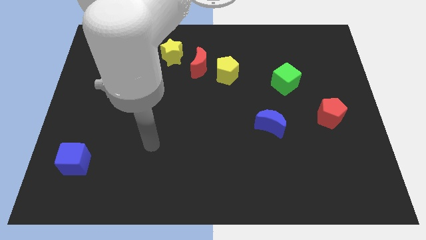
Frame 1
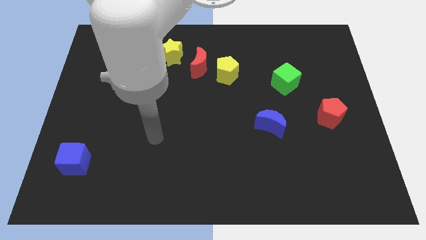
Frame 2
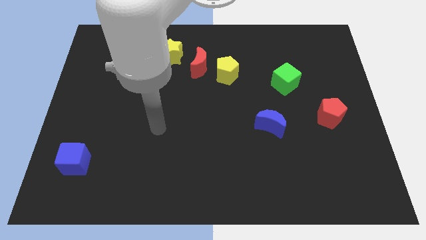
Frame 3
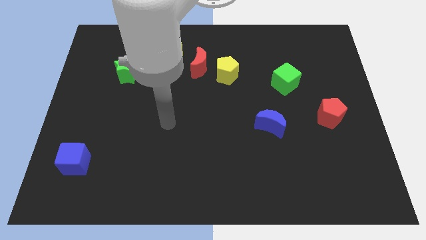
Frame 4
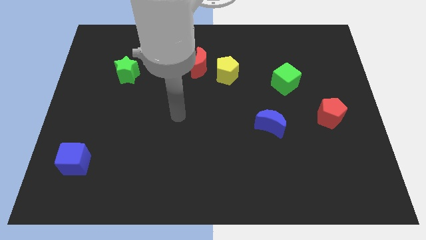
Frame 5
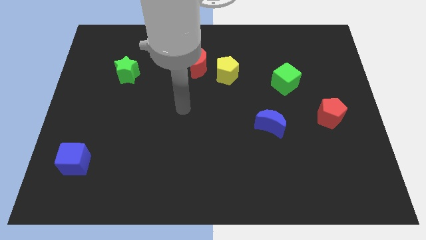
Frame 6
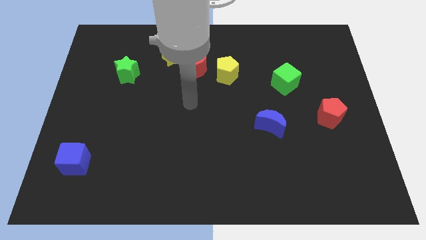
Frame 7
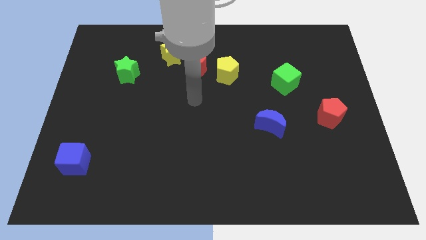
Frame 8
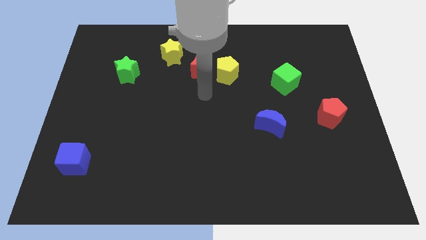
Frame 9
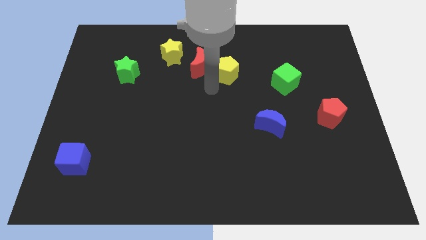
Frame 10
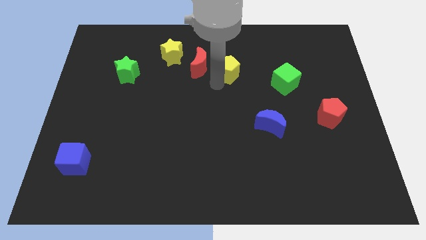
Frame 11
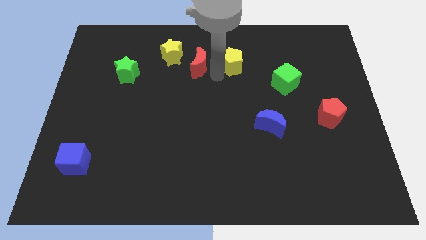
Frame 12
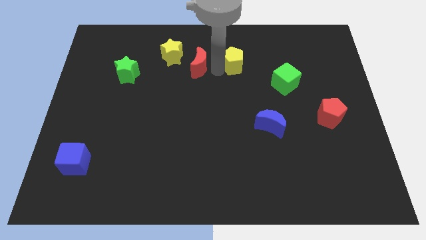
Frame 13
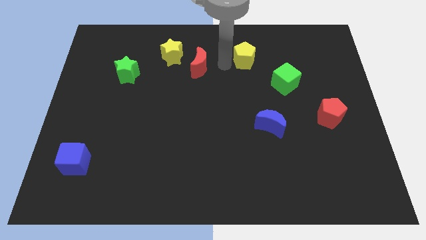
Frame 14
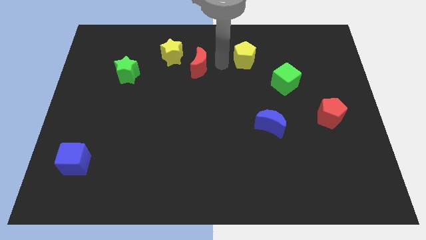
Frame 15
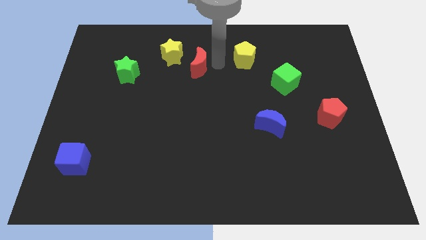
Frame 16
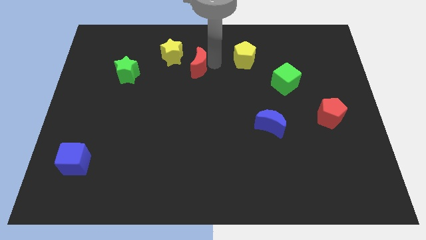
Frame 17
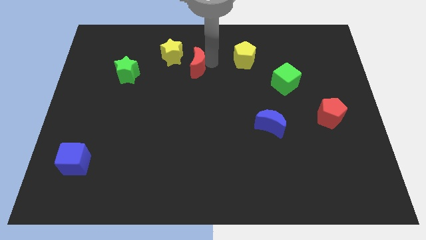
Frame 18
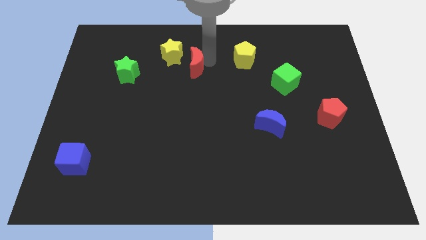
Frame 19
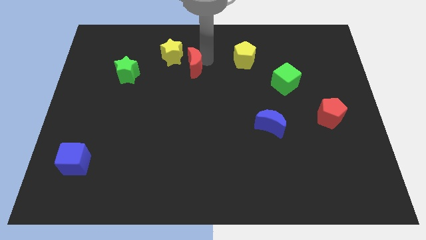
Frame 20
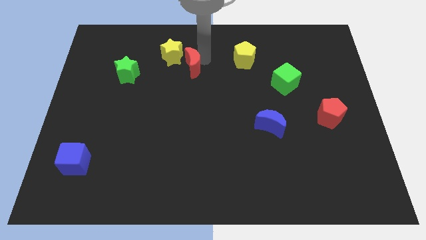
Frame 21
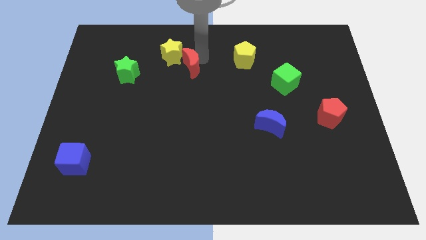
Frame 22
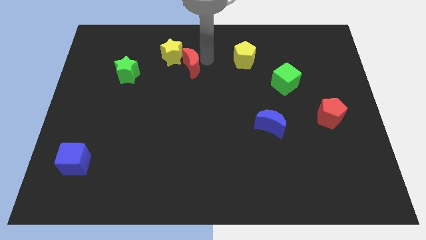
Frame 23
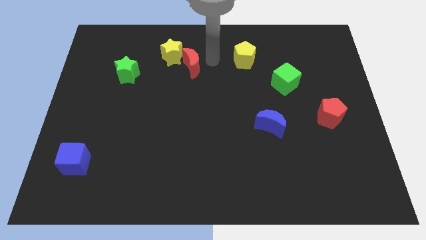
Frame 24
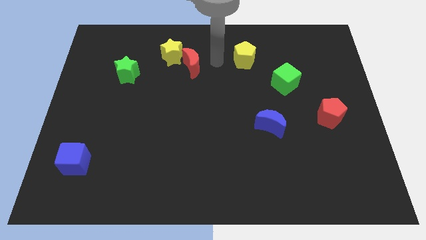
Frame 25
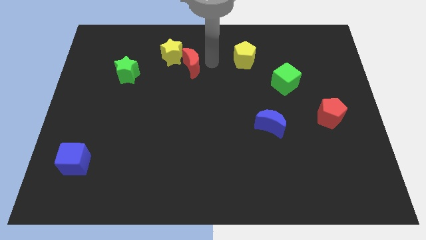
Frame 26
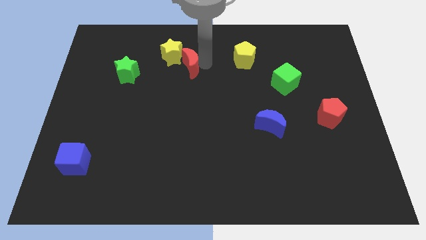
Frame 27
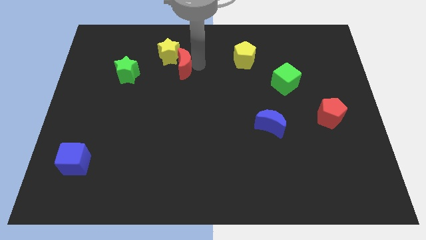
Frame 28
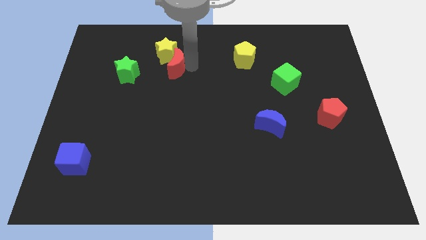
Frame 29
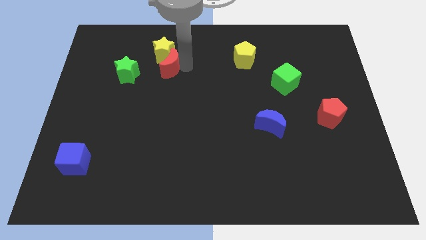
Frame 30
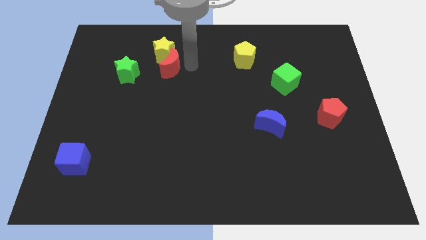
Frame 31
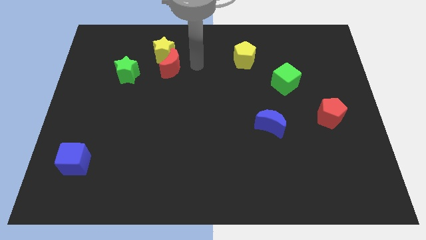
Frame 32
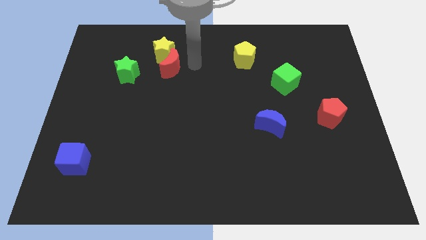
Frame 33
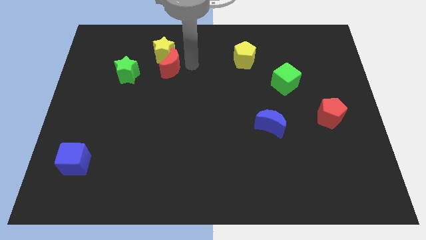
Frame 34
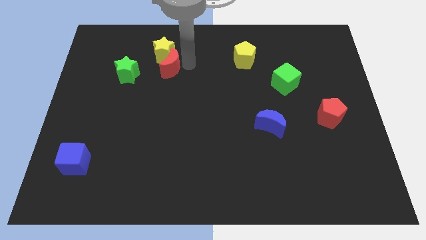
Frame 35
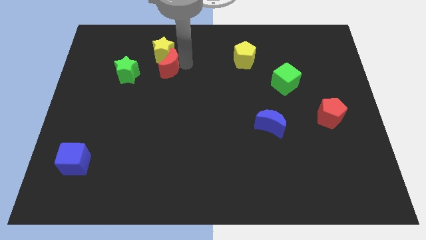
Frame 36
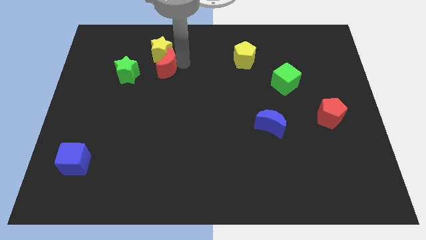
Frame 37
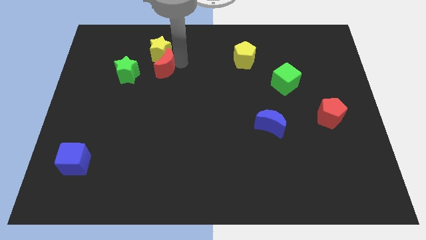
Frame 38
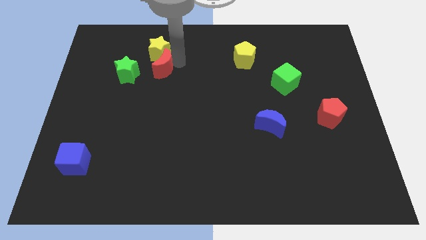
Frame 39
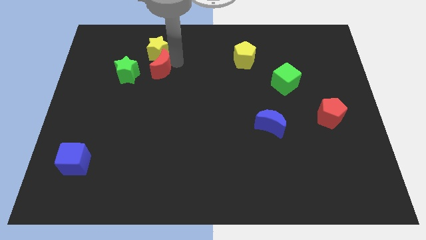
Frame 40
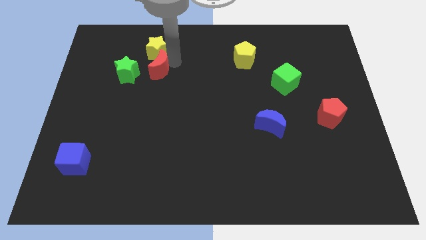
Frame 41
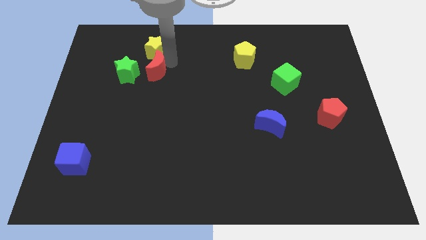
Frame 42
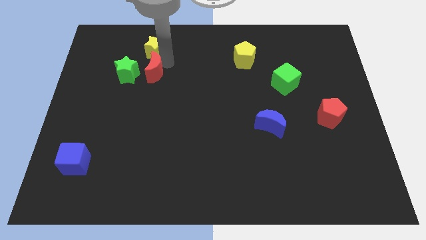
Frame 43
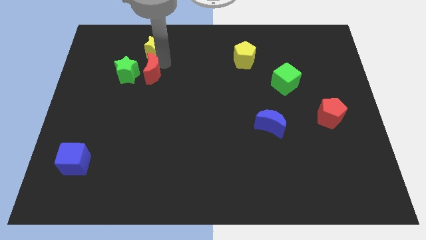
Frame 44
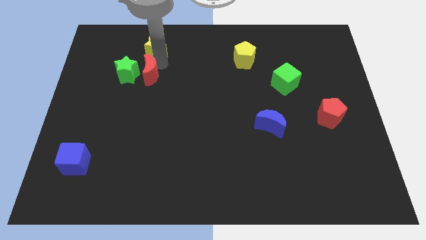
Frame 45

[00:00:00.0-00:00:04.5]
slide the red moon close to the green star

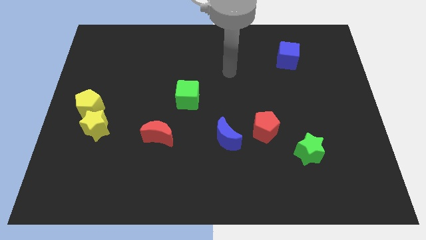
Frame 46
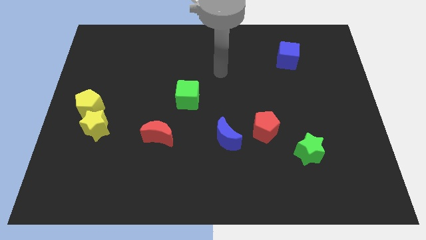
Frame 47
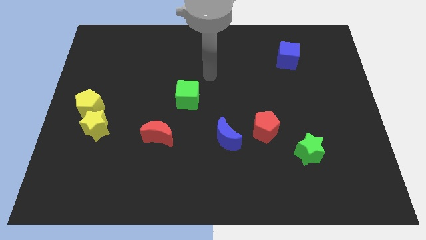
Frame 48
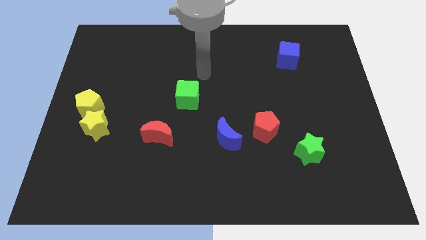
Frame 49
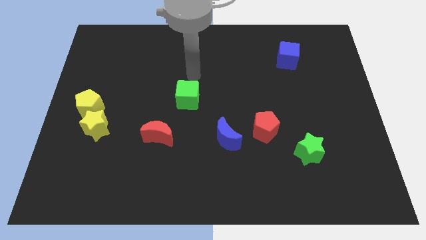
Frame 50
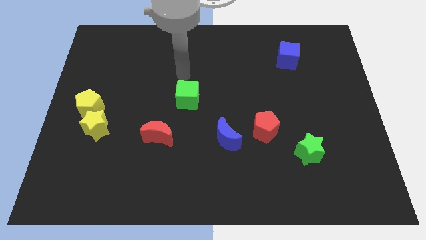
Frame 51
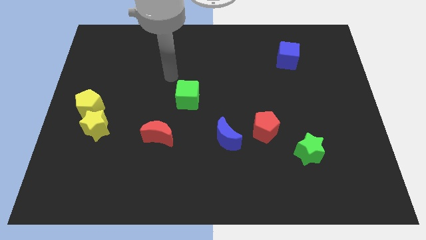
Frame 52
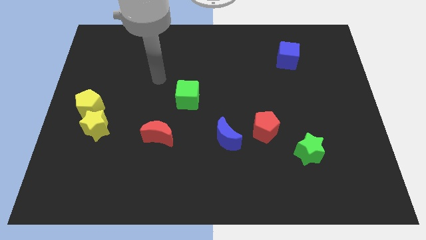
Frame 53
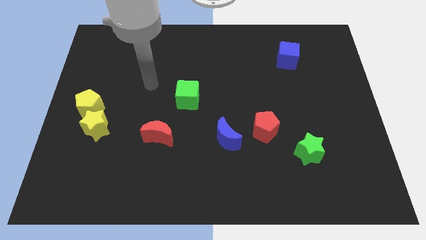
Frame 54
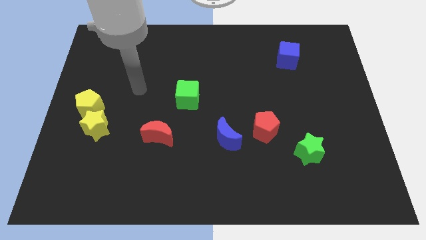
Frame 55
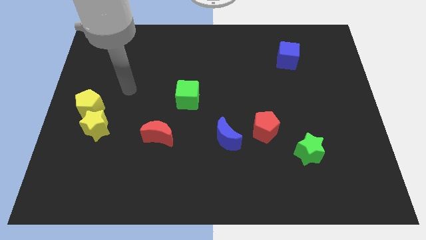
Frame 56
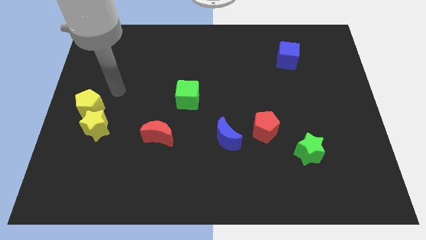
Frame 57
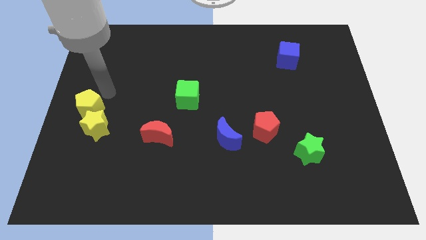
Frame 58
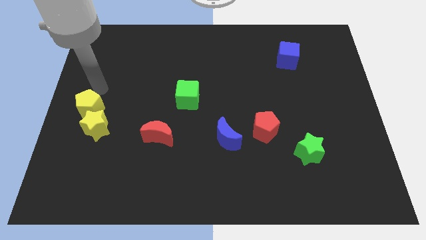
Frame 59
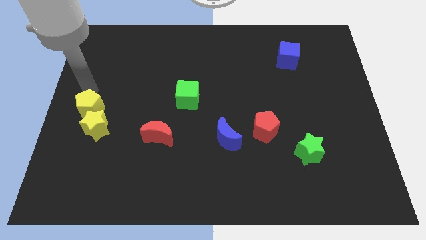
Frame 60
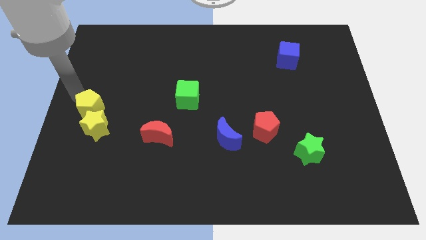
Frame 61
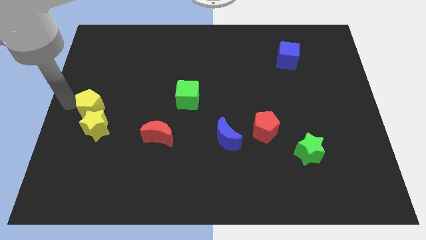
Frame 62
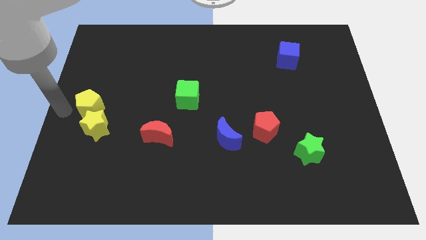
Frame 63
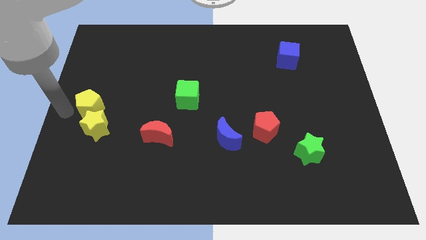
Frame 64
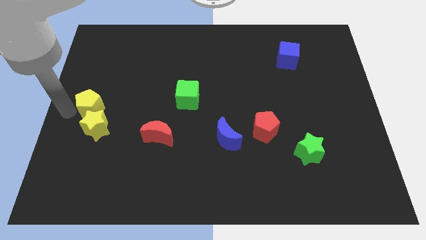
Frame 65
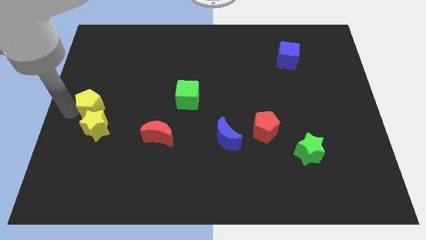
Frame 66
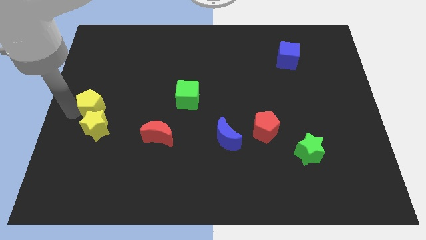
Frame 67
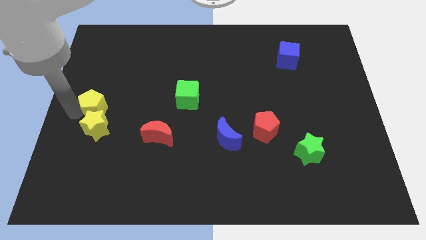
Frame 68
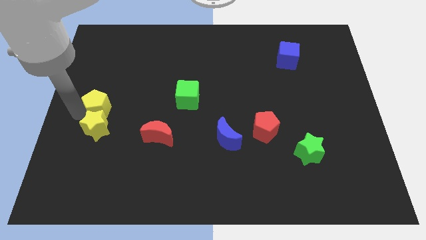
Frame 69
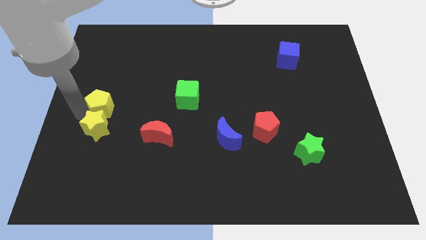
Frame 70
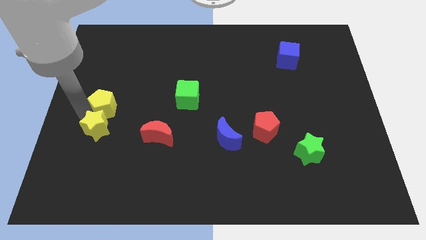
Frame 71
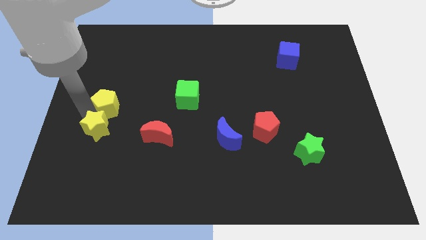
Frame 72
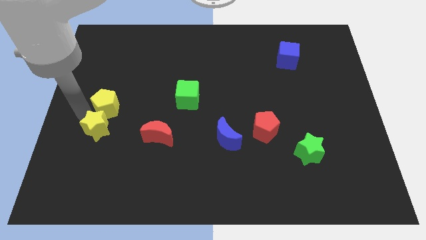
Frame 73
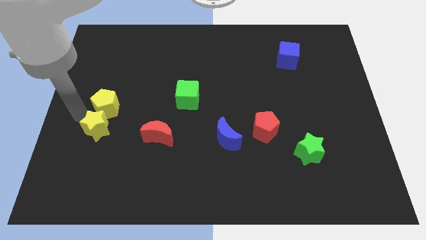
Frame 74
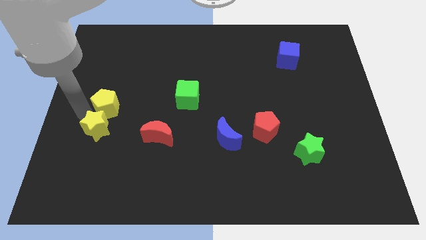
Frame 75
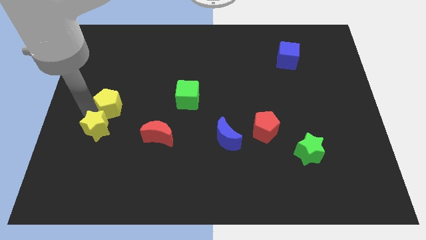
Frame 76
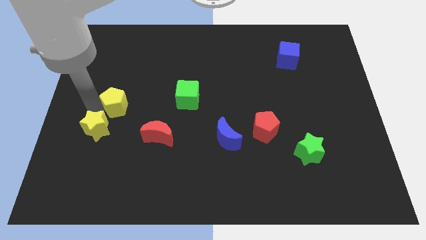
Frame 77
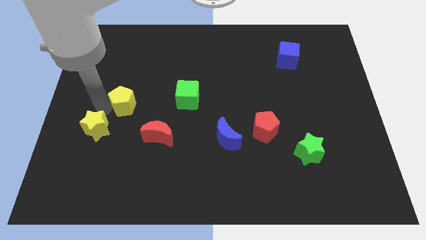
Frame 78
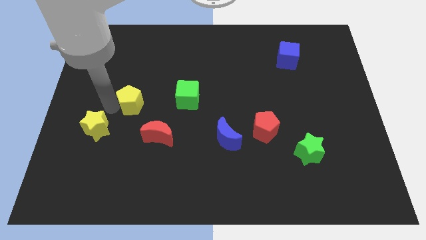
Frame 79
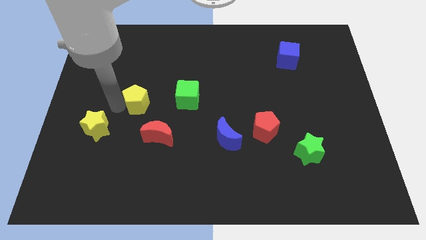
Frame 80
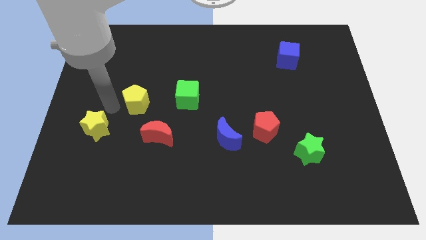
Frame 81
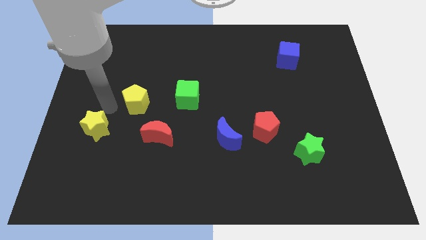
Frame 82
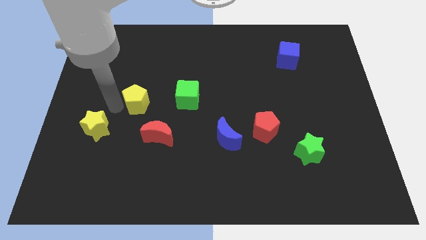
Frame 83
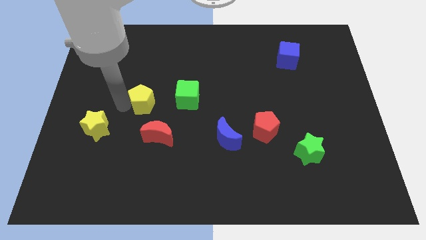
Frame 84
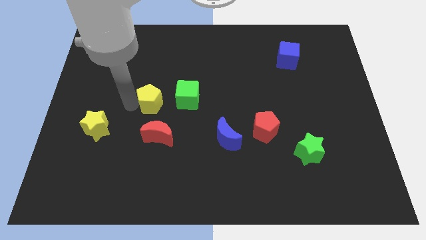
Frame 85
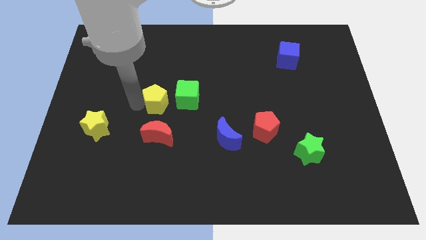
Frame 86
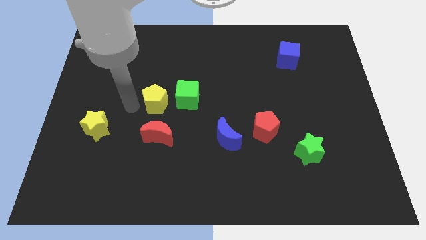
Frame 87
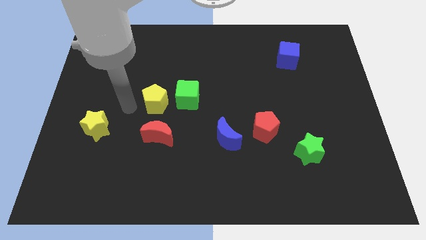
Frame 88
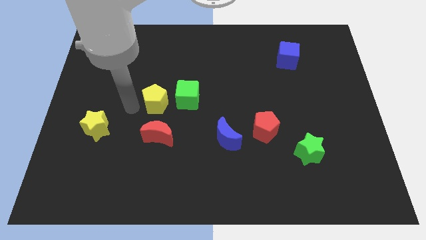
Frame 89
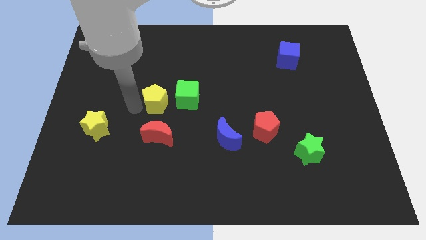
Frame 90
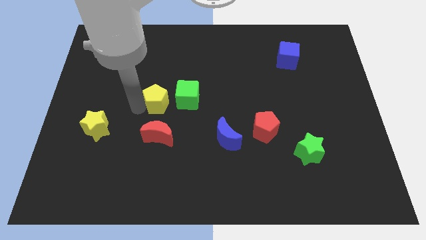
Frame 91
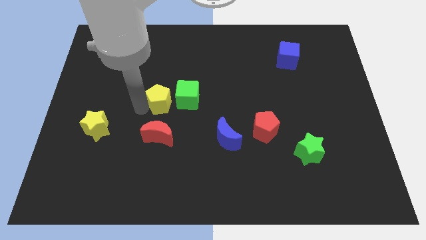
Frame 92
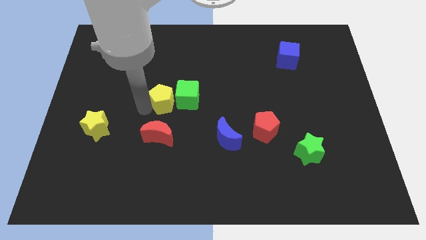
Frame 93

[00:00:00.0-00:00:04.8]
put the yellow pentagon to the green cube
